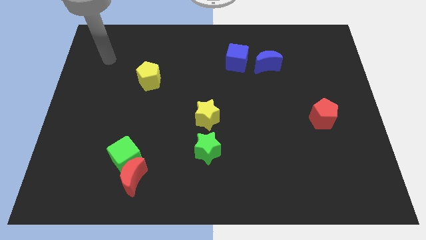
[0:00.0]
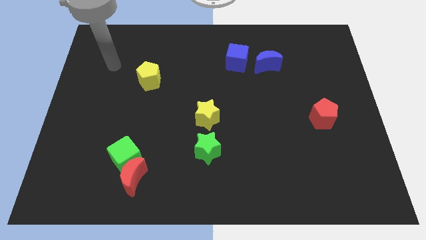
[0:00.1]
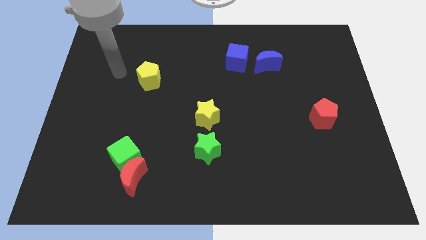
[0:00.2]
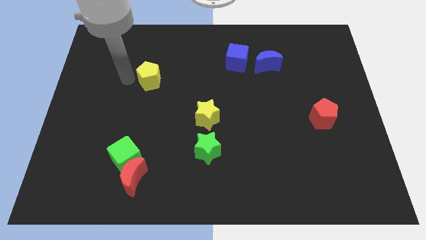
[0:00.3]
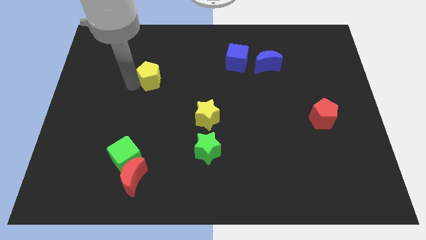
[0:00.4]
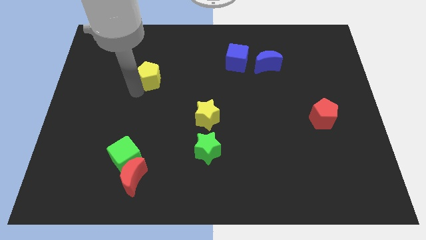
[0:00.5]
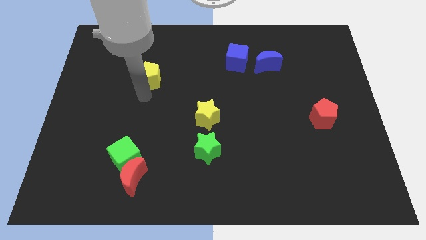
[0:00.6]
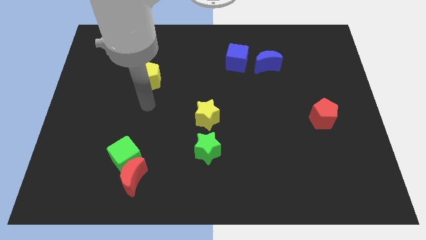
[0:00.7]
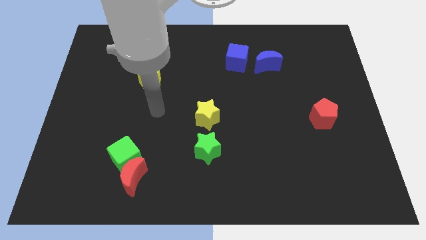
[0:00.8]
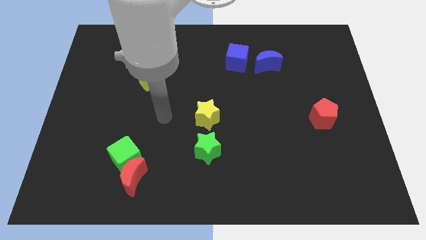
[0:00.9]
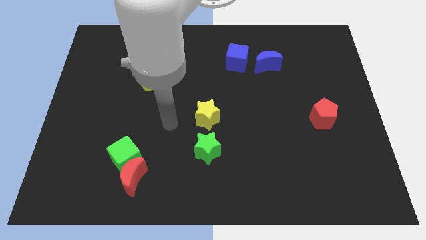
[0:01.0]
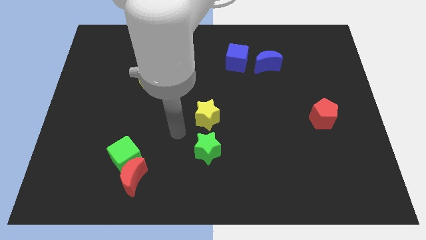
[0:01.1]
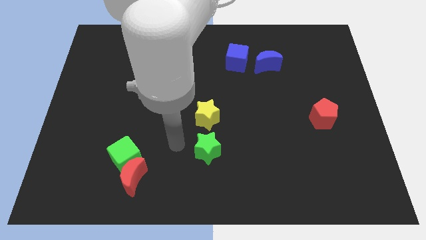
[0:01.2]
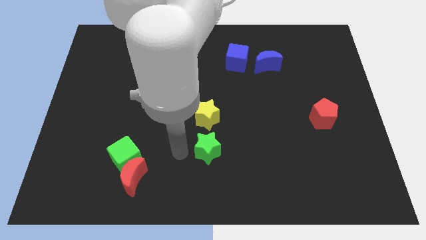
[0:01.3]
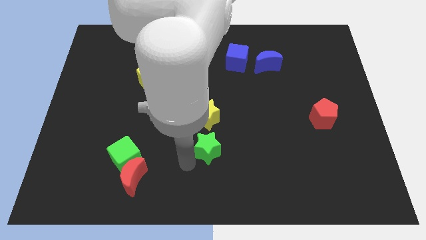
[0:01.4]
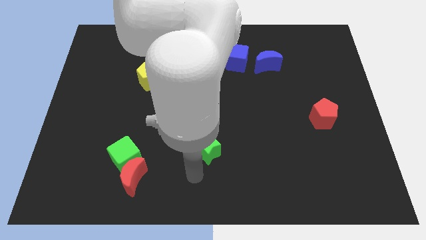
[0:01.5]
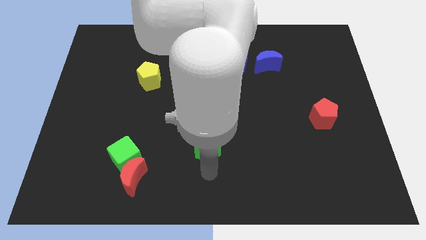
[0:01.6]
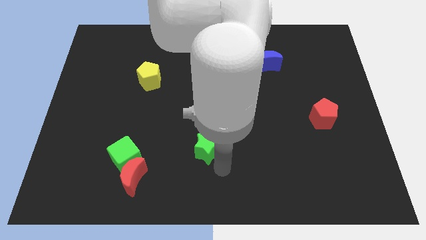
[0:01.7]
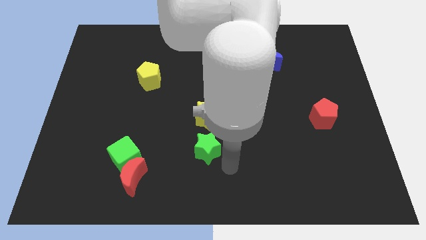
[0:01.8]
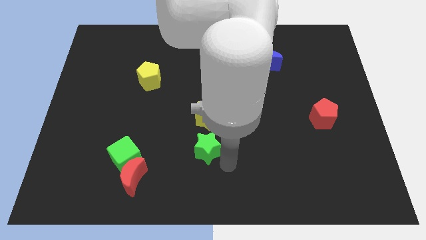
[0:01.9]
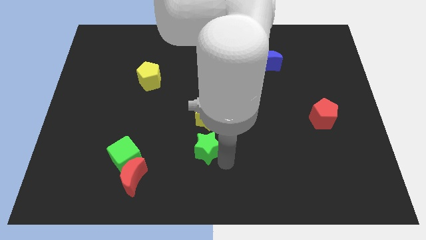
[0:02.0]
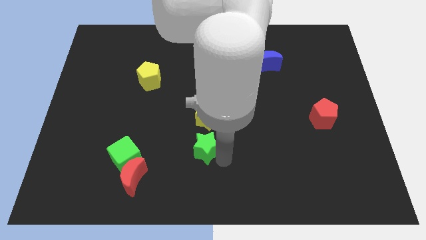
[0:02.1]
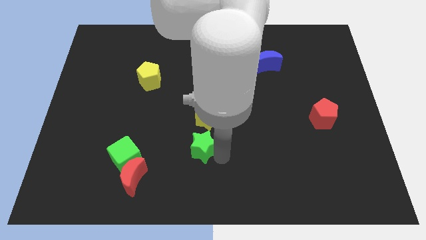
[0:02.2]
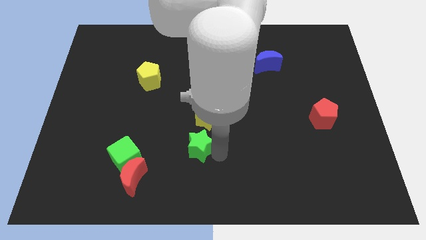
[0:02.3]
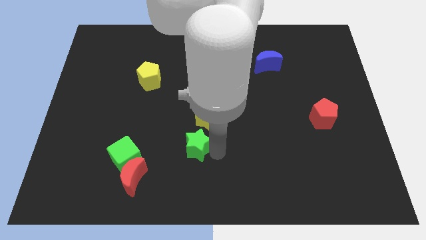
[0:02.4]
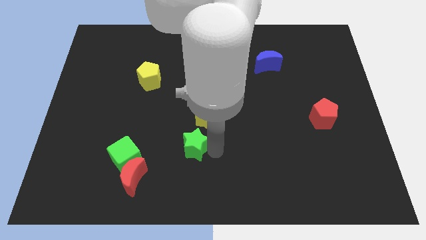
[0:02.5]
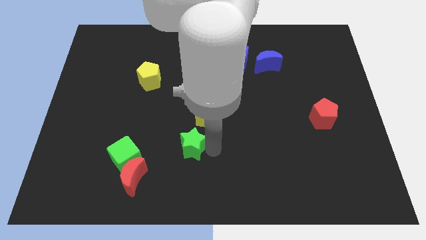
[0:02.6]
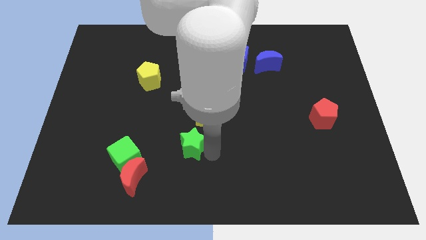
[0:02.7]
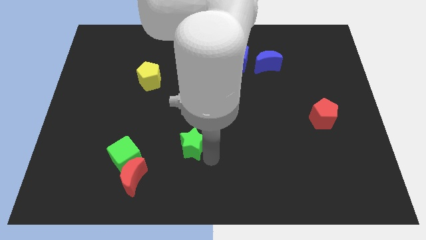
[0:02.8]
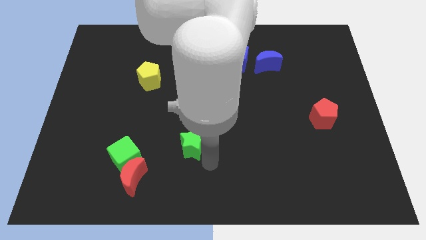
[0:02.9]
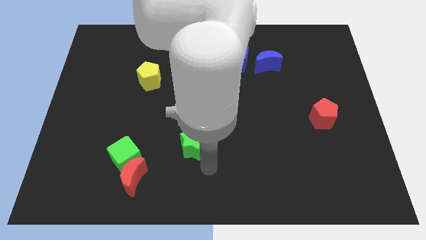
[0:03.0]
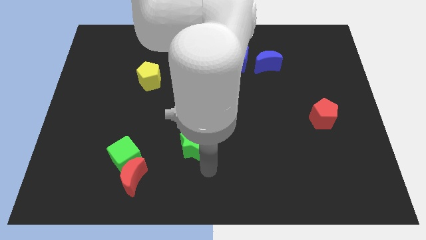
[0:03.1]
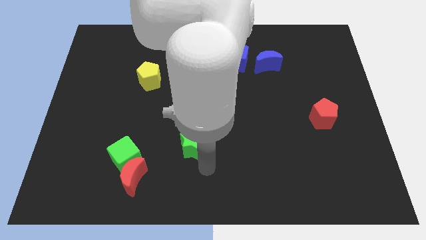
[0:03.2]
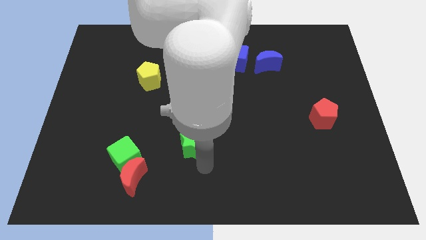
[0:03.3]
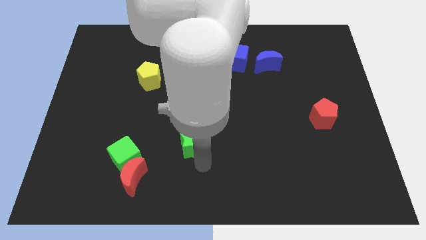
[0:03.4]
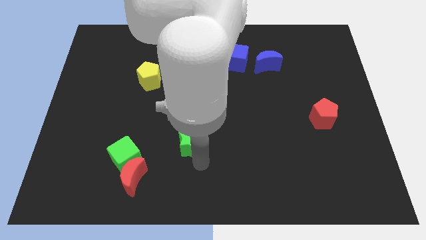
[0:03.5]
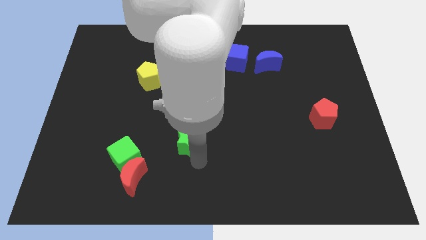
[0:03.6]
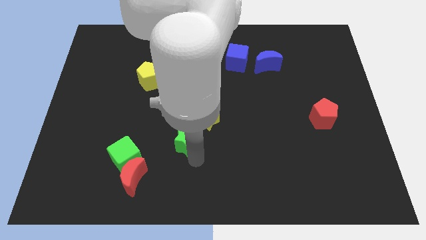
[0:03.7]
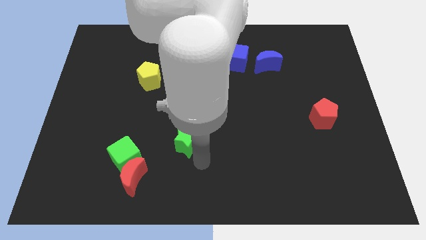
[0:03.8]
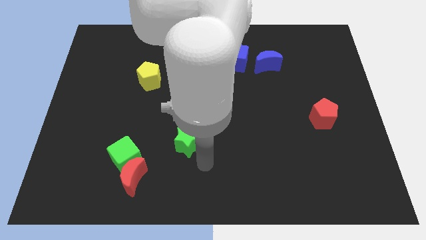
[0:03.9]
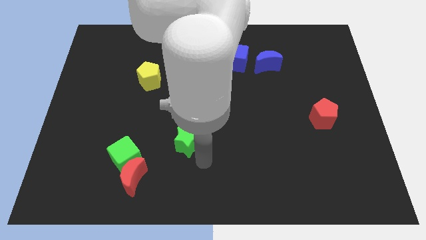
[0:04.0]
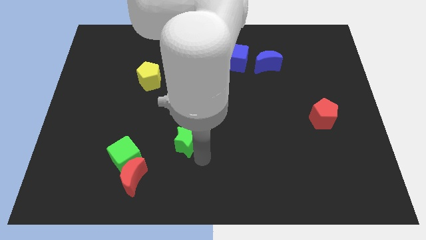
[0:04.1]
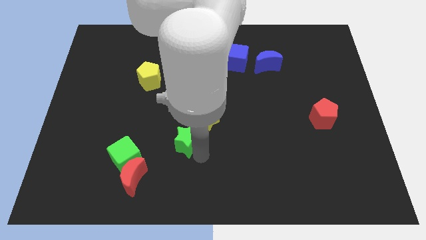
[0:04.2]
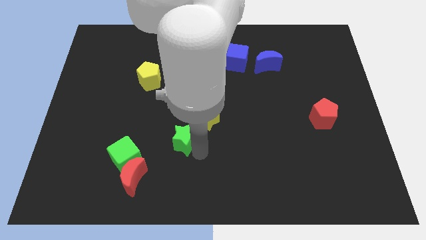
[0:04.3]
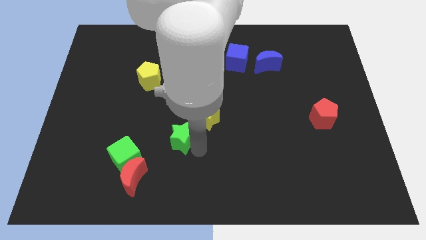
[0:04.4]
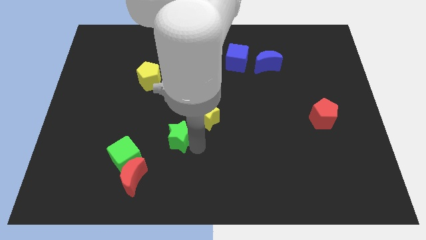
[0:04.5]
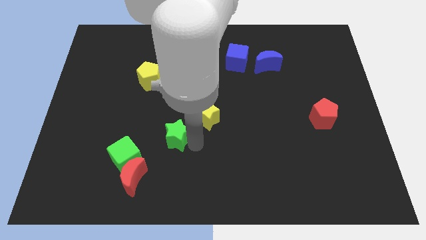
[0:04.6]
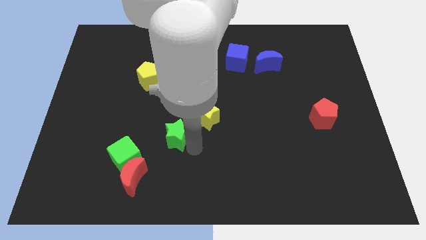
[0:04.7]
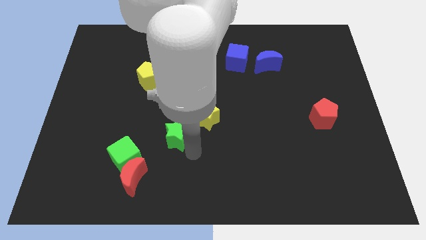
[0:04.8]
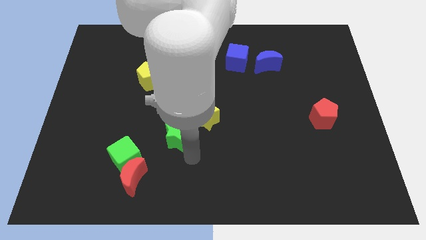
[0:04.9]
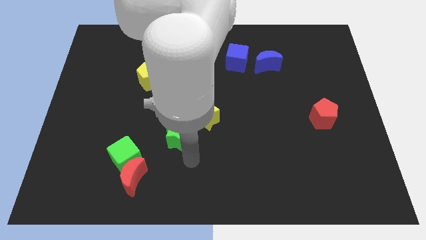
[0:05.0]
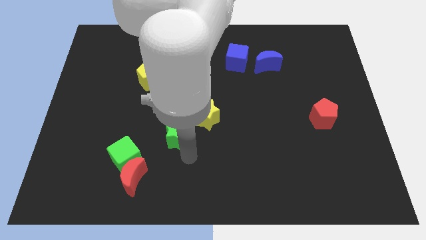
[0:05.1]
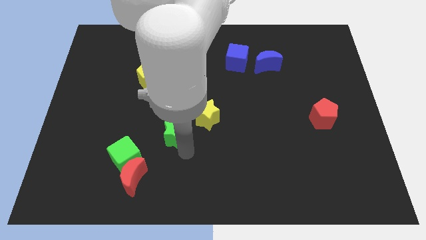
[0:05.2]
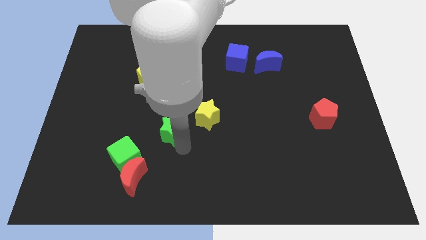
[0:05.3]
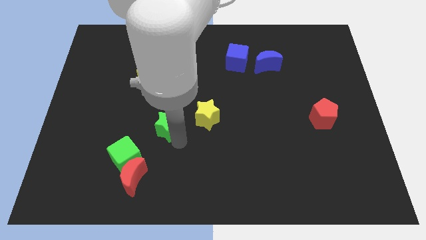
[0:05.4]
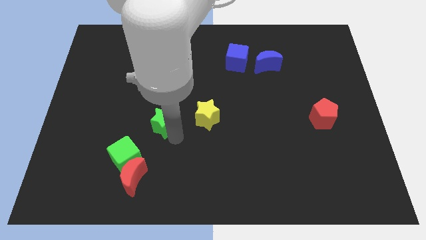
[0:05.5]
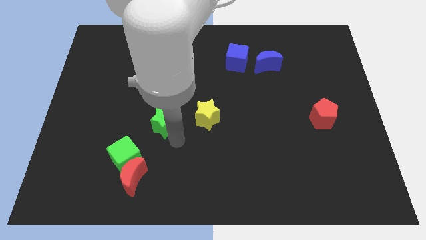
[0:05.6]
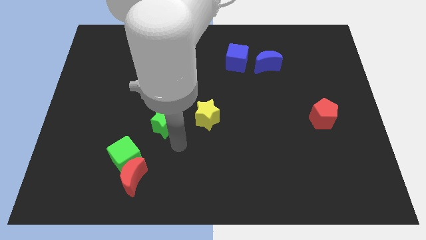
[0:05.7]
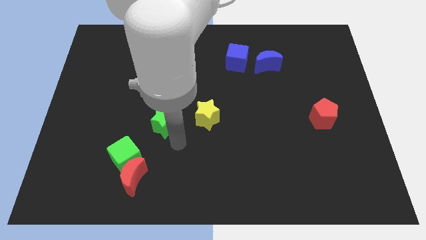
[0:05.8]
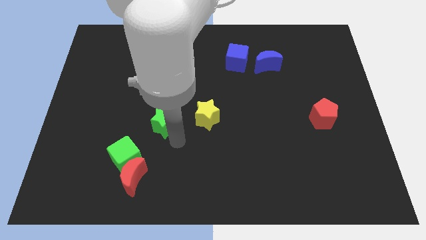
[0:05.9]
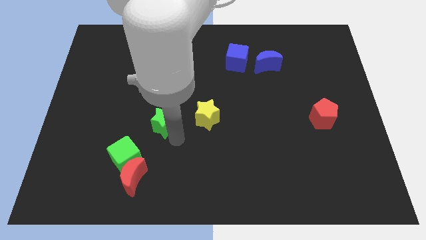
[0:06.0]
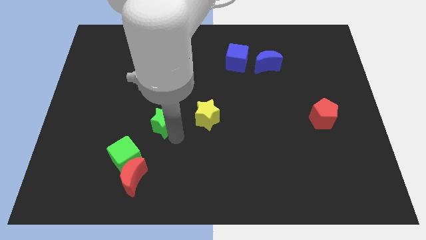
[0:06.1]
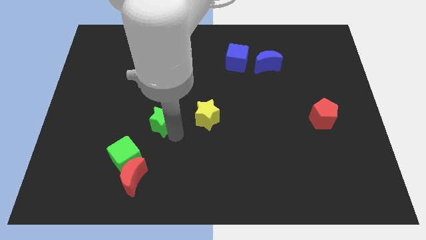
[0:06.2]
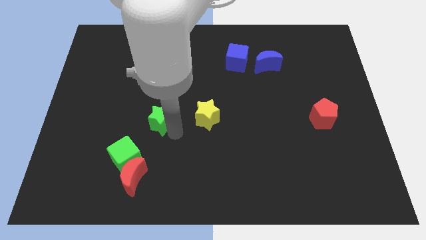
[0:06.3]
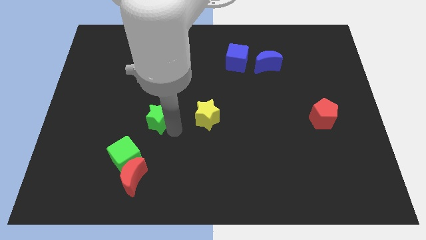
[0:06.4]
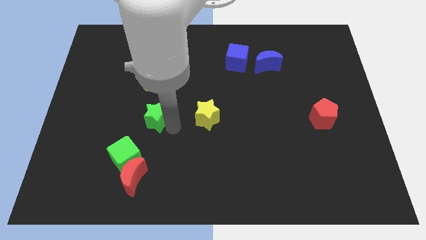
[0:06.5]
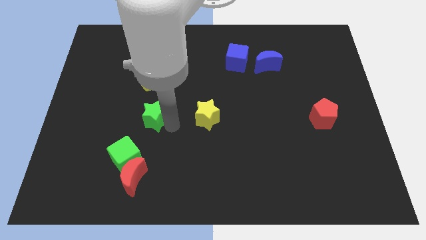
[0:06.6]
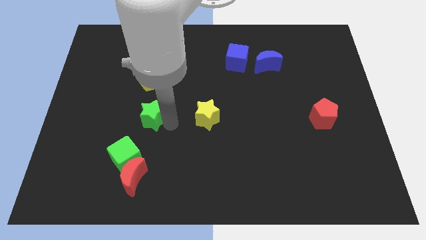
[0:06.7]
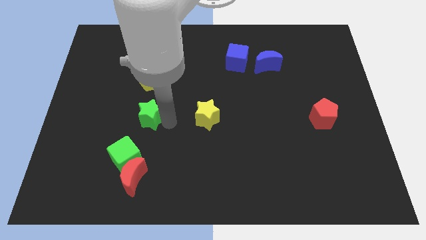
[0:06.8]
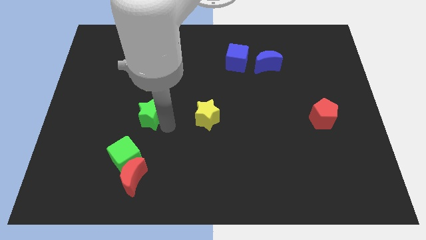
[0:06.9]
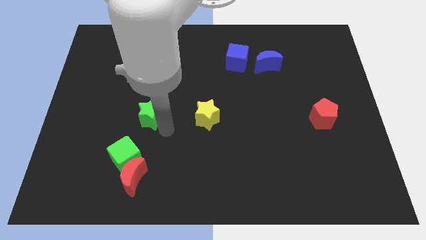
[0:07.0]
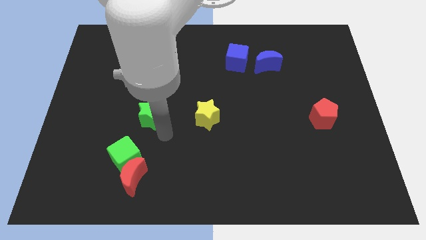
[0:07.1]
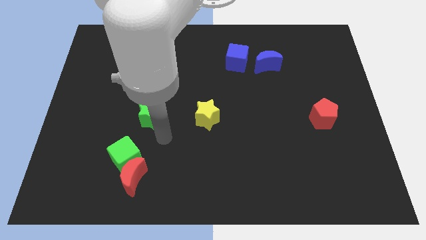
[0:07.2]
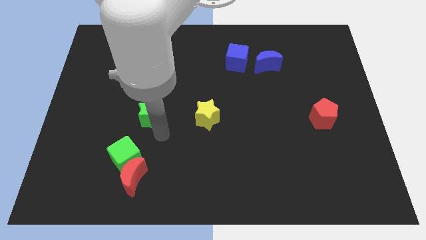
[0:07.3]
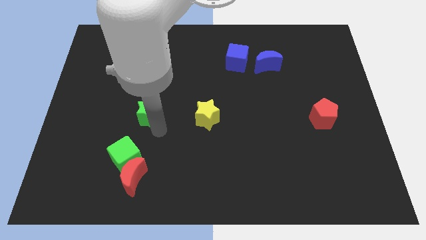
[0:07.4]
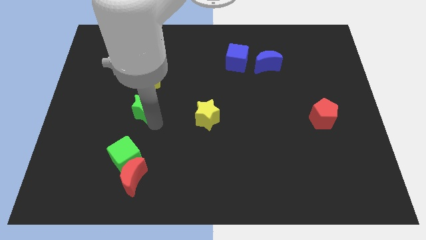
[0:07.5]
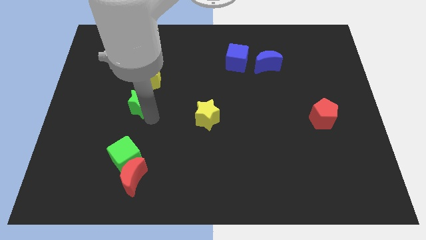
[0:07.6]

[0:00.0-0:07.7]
slide the green star to the bottom left of the yellow pentagon
